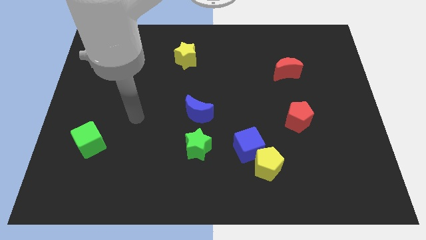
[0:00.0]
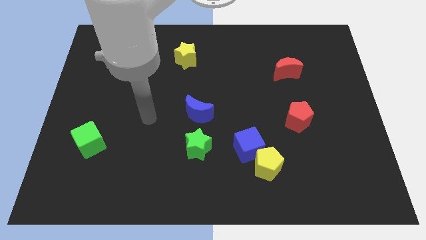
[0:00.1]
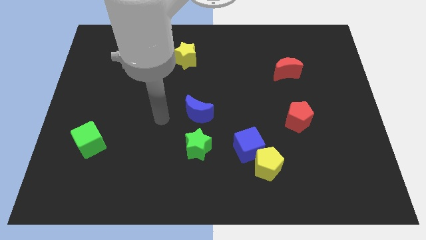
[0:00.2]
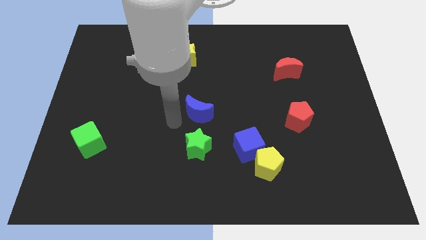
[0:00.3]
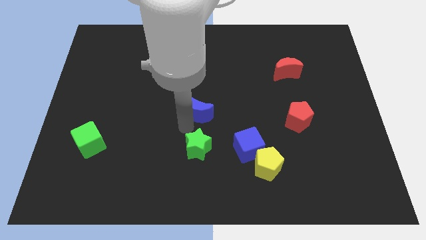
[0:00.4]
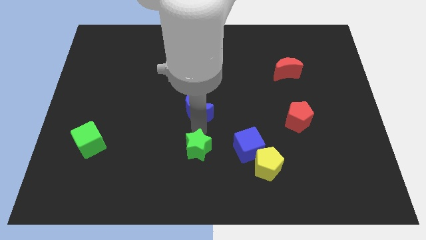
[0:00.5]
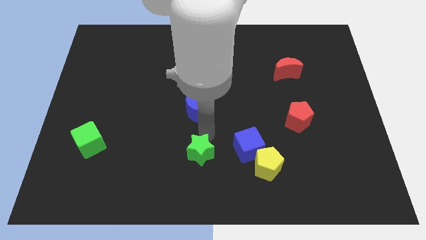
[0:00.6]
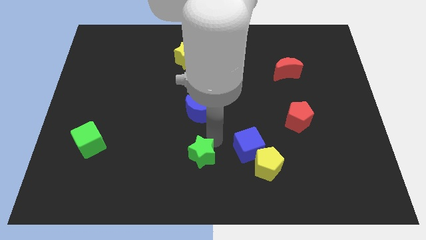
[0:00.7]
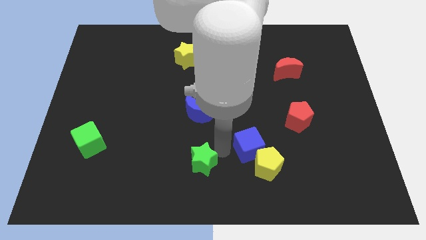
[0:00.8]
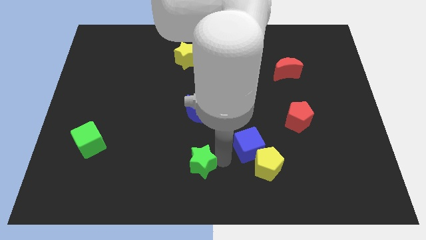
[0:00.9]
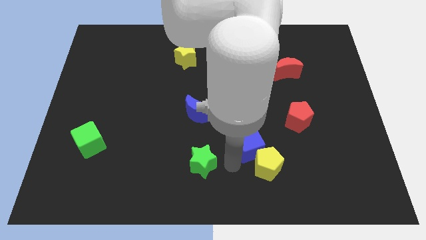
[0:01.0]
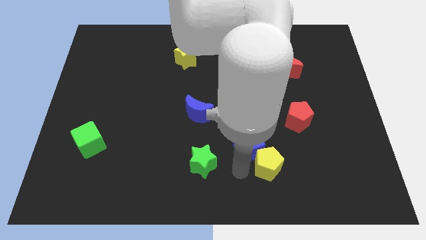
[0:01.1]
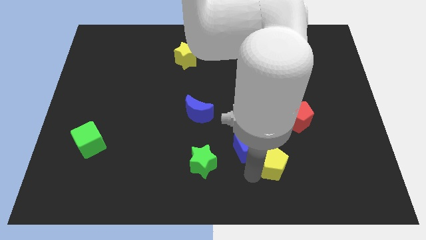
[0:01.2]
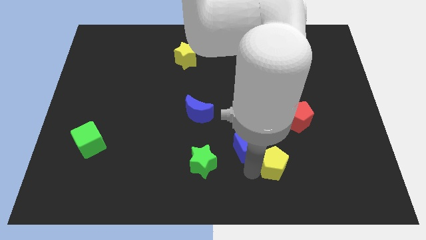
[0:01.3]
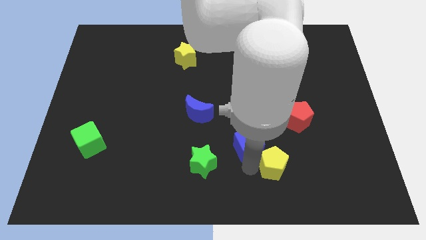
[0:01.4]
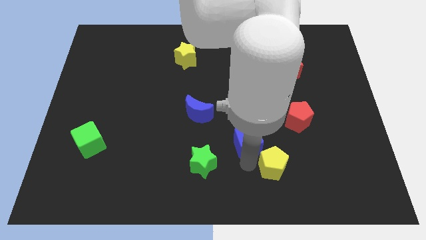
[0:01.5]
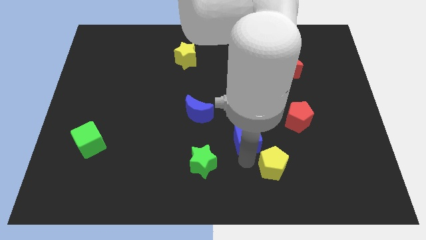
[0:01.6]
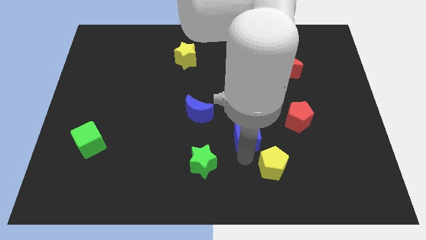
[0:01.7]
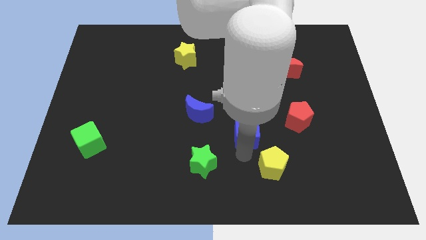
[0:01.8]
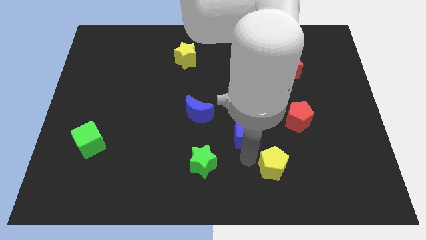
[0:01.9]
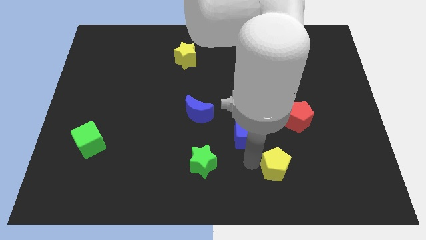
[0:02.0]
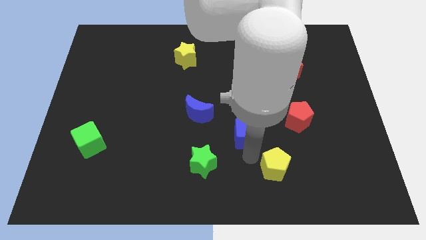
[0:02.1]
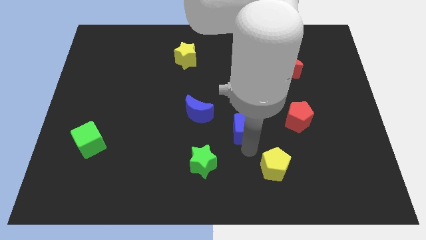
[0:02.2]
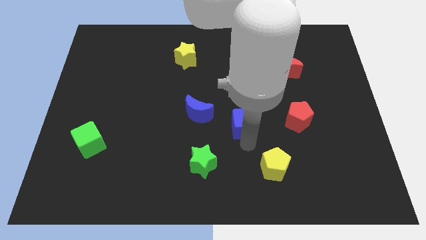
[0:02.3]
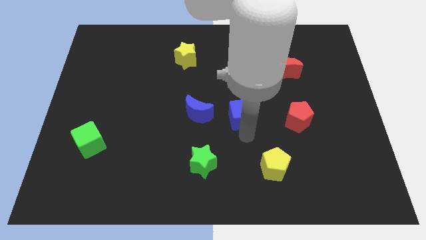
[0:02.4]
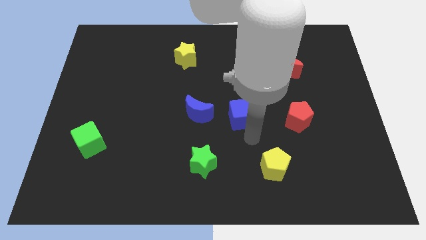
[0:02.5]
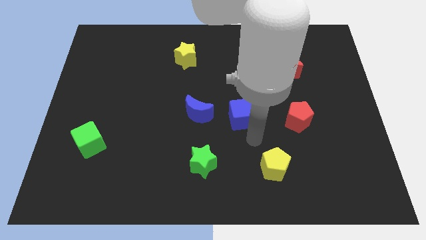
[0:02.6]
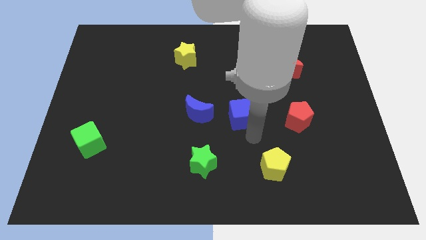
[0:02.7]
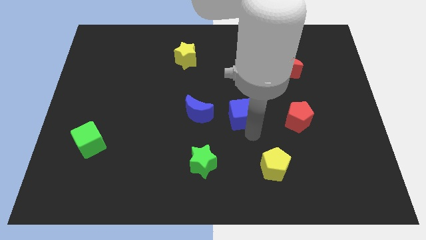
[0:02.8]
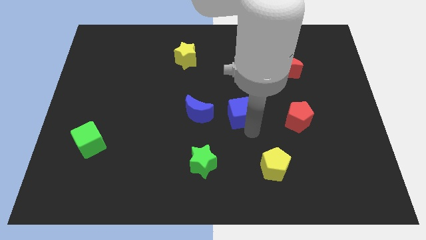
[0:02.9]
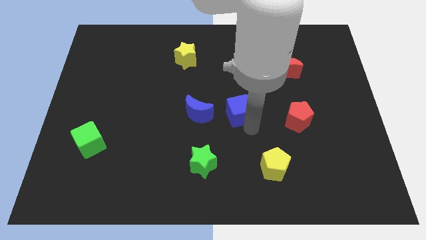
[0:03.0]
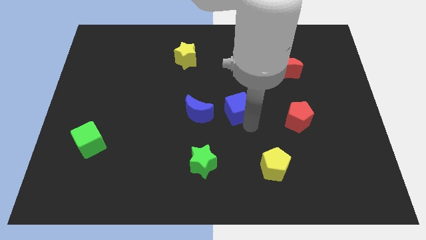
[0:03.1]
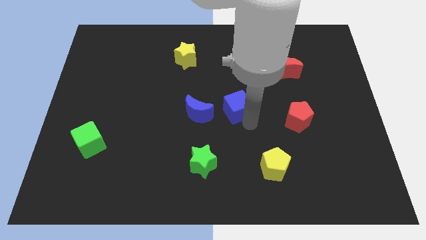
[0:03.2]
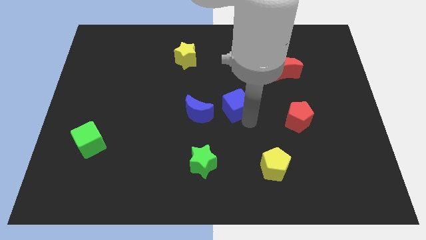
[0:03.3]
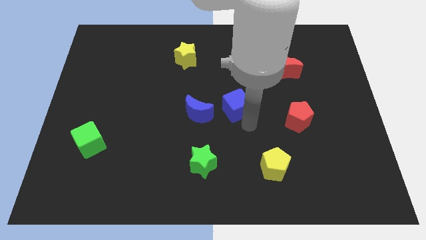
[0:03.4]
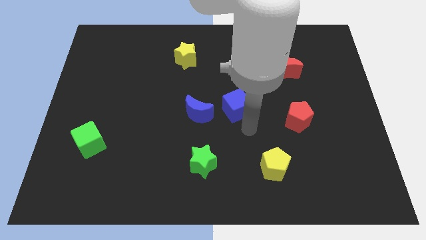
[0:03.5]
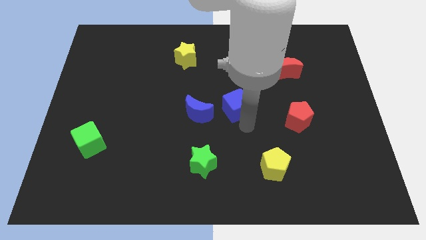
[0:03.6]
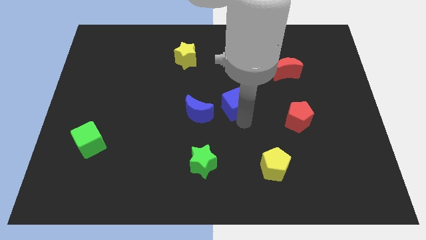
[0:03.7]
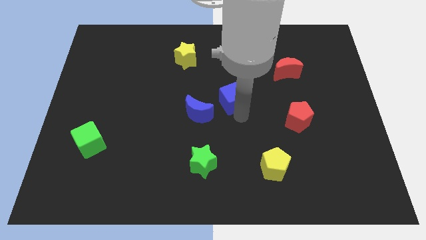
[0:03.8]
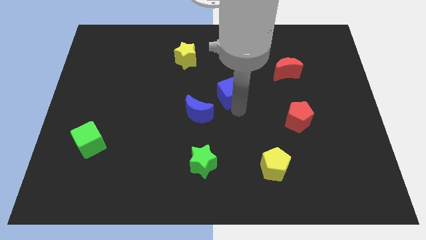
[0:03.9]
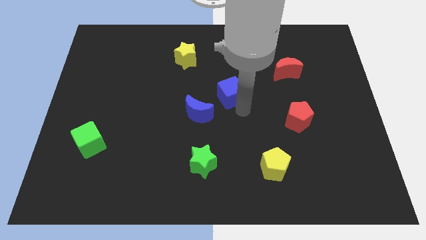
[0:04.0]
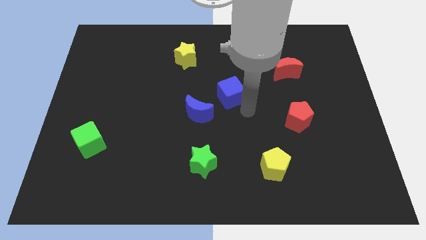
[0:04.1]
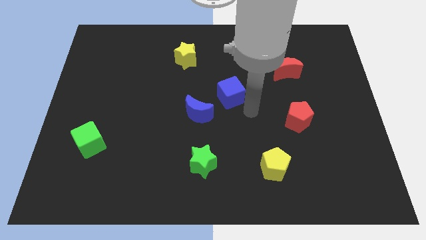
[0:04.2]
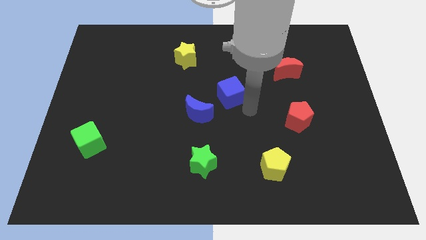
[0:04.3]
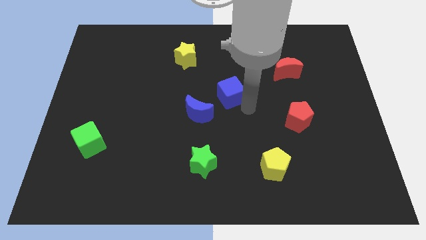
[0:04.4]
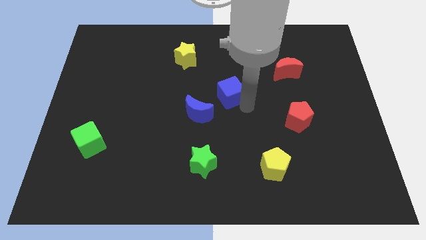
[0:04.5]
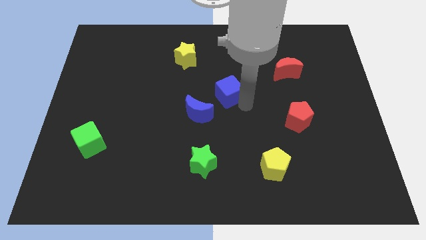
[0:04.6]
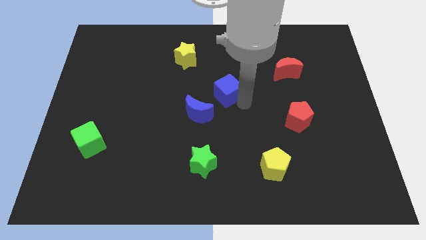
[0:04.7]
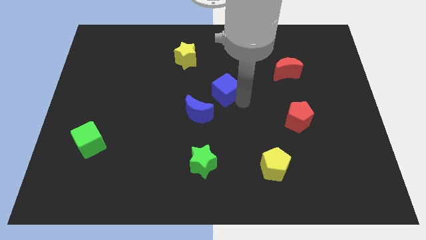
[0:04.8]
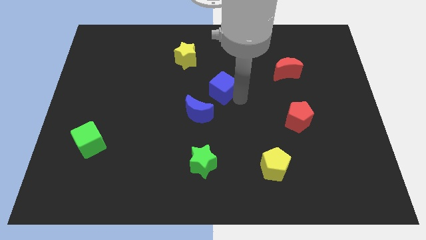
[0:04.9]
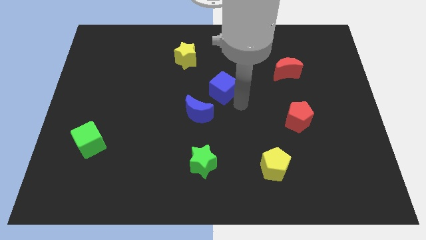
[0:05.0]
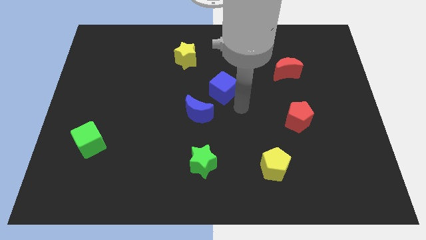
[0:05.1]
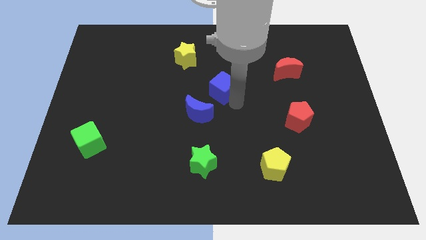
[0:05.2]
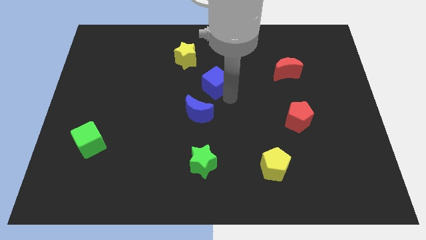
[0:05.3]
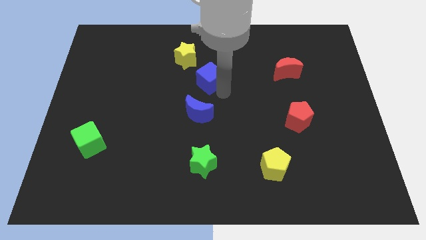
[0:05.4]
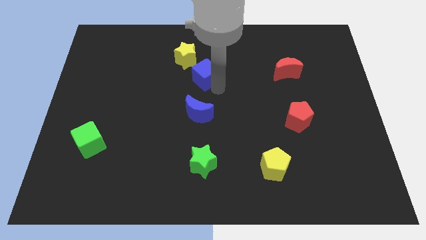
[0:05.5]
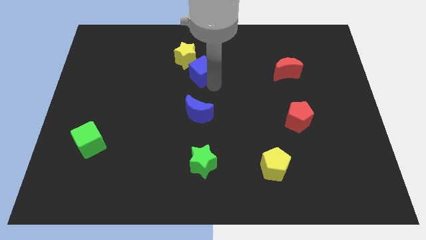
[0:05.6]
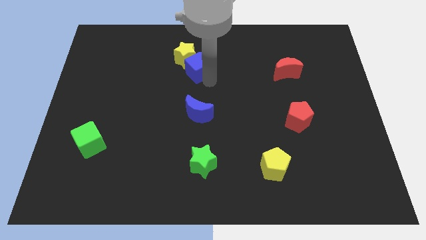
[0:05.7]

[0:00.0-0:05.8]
put the blue cube to the yellow star

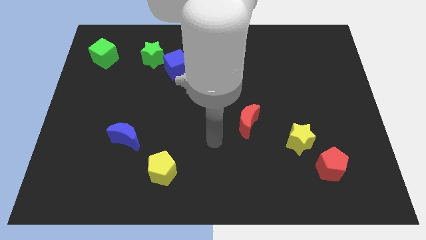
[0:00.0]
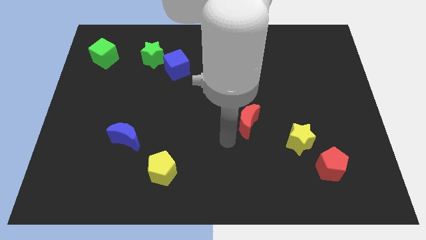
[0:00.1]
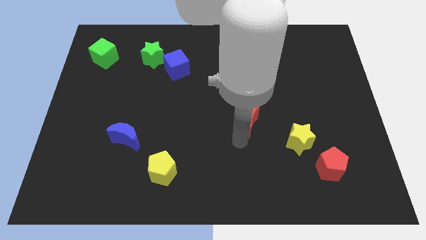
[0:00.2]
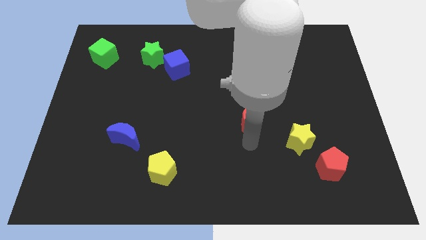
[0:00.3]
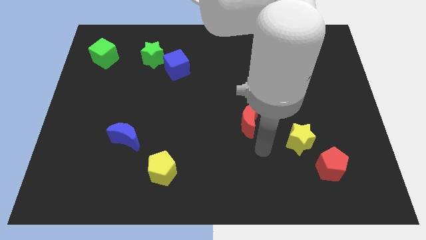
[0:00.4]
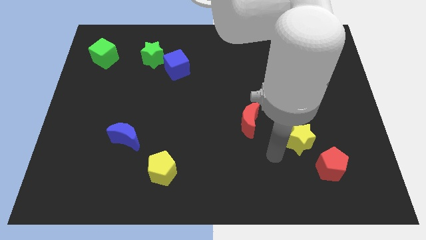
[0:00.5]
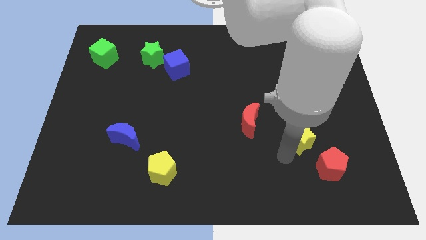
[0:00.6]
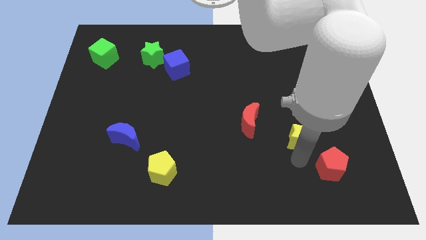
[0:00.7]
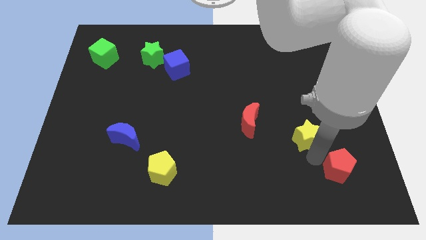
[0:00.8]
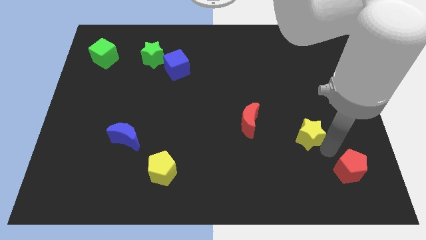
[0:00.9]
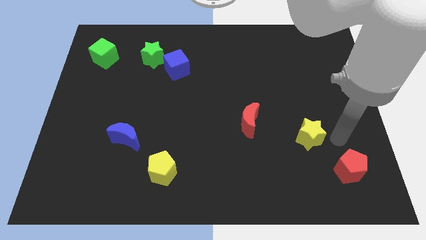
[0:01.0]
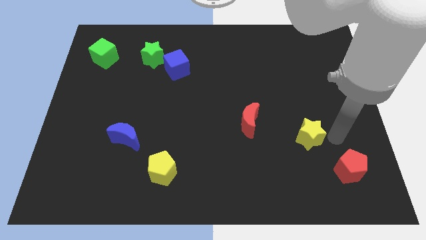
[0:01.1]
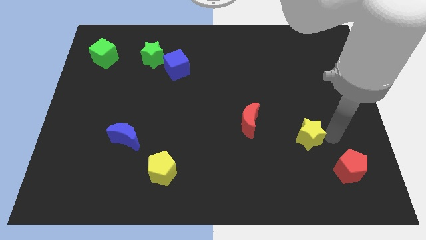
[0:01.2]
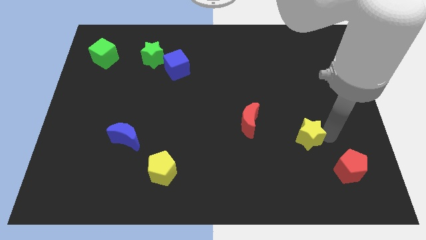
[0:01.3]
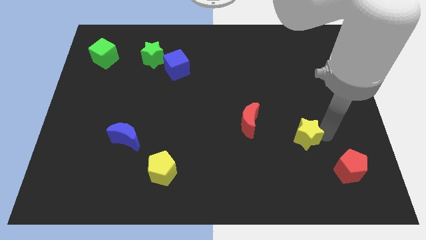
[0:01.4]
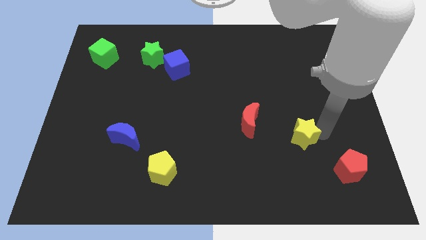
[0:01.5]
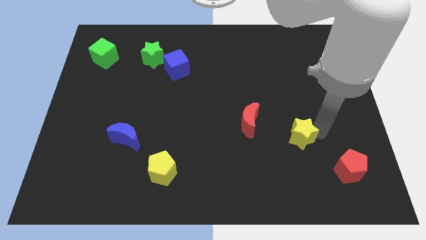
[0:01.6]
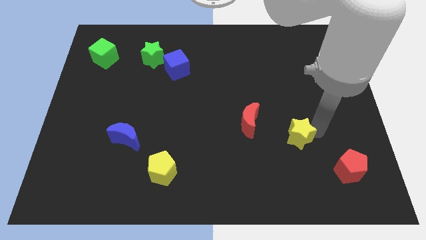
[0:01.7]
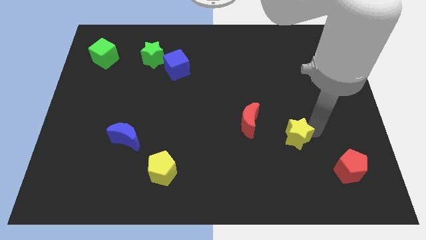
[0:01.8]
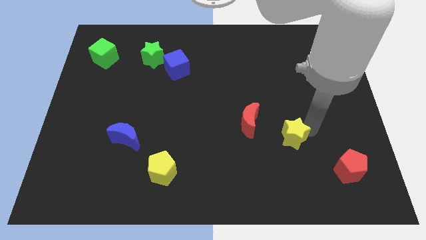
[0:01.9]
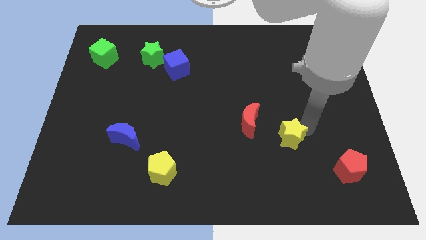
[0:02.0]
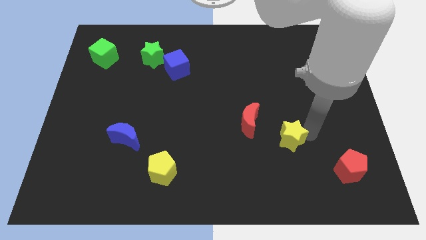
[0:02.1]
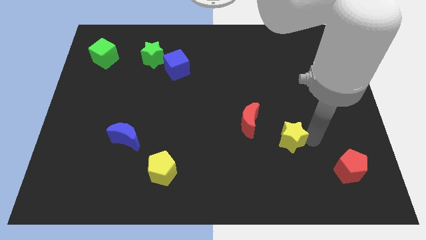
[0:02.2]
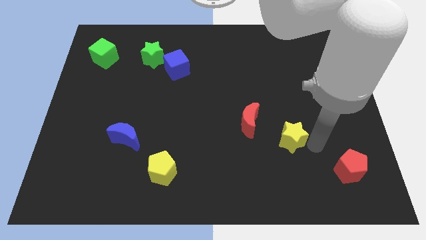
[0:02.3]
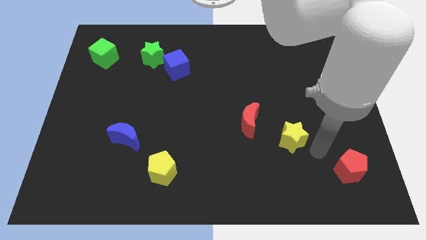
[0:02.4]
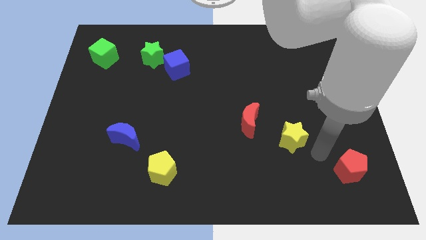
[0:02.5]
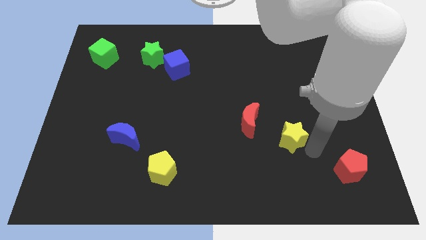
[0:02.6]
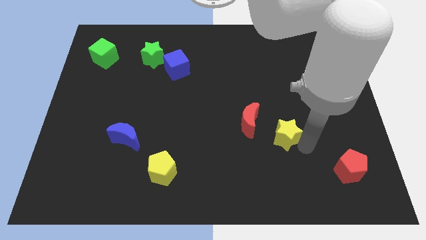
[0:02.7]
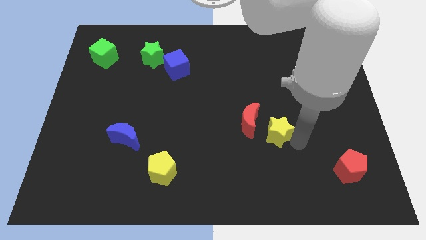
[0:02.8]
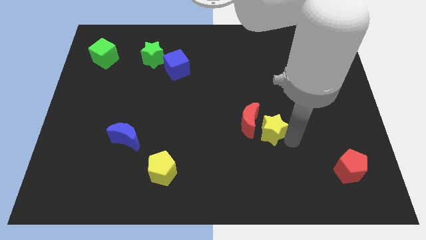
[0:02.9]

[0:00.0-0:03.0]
move the yellow star to the red moon
